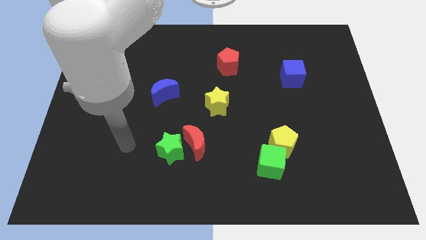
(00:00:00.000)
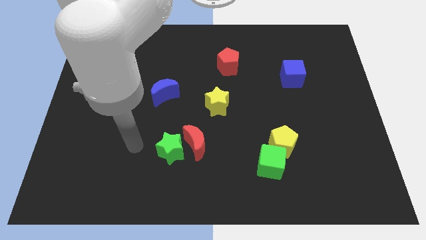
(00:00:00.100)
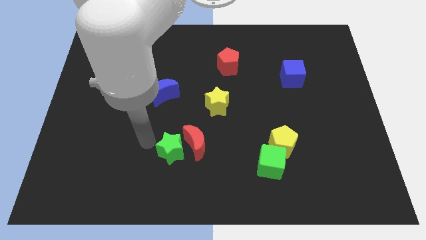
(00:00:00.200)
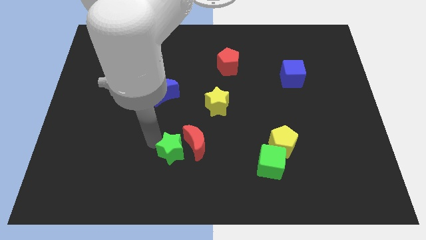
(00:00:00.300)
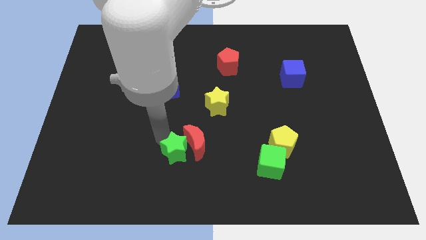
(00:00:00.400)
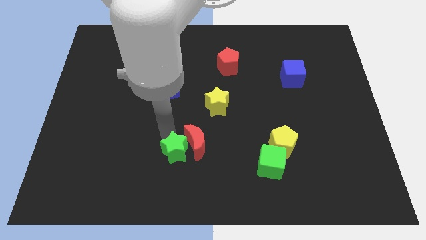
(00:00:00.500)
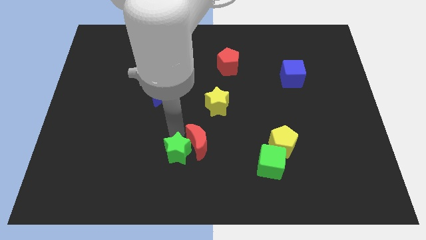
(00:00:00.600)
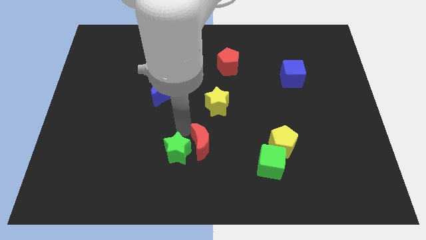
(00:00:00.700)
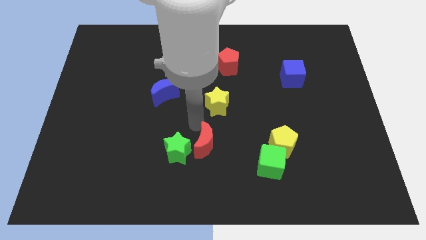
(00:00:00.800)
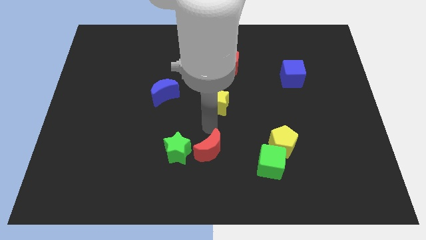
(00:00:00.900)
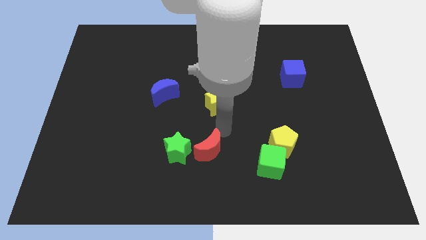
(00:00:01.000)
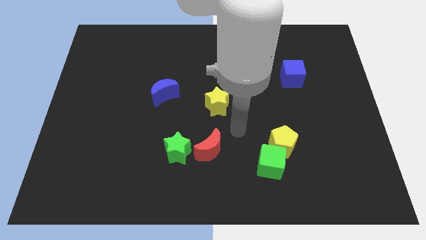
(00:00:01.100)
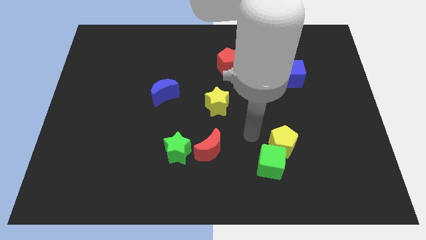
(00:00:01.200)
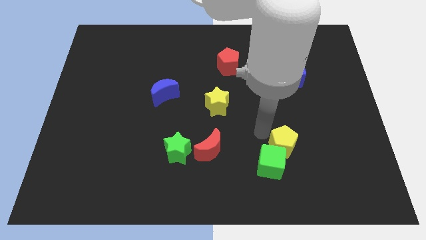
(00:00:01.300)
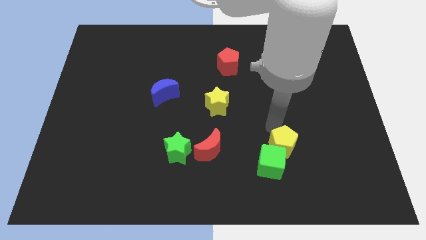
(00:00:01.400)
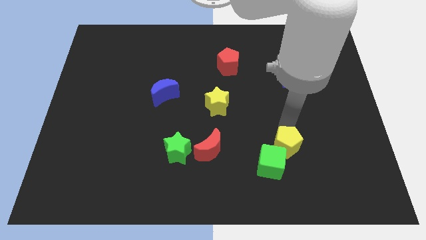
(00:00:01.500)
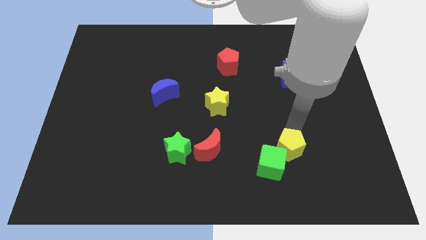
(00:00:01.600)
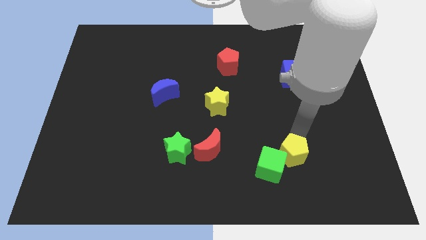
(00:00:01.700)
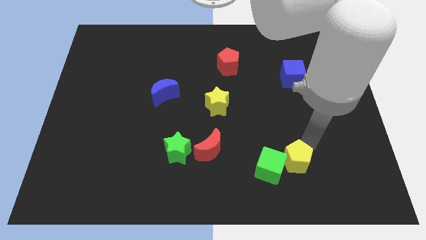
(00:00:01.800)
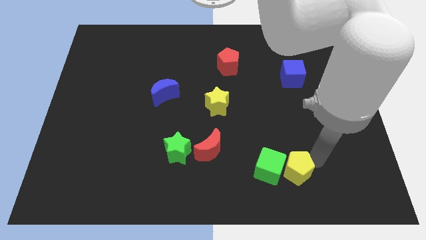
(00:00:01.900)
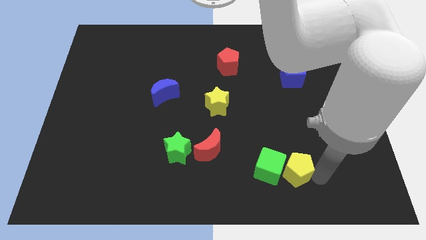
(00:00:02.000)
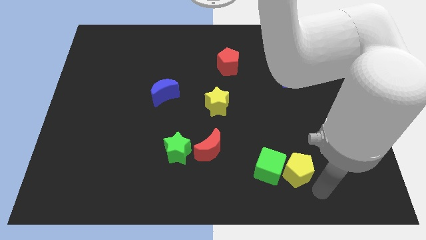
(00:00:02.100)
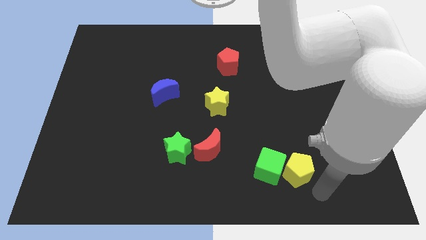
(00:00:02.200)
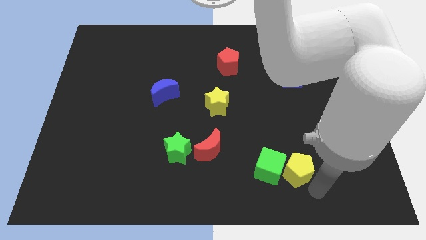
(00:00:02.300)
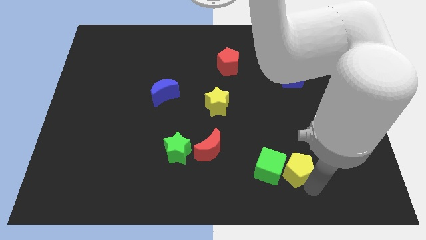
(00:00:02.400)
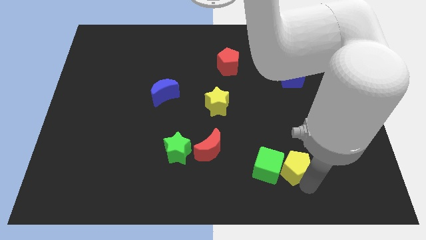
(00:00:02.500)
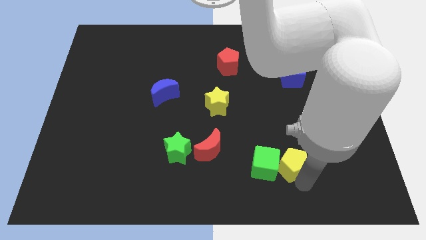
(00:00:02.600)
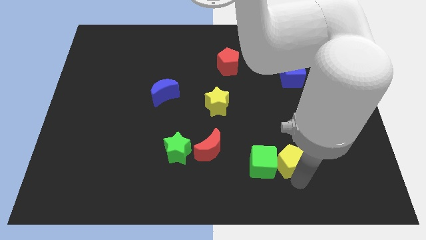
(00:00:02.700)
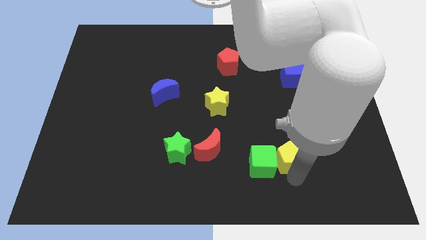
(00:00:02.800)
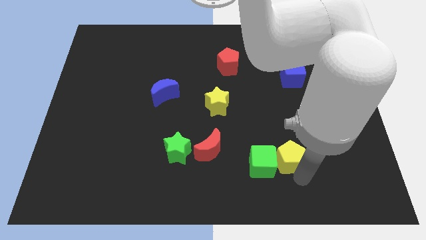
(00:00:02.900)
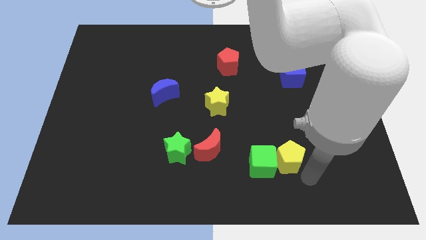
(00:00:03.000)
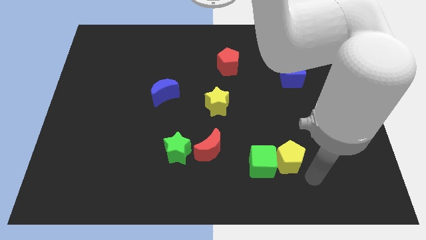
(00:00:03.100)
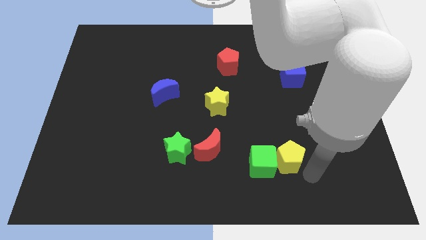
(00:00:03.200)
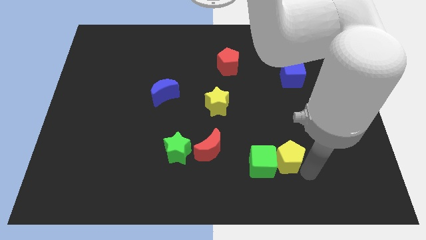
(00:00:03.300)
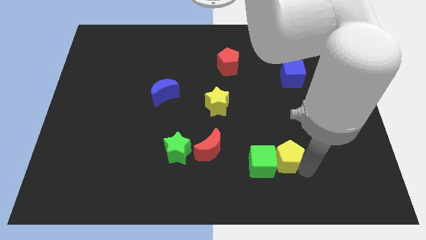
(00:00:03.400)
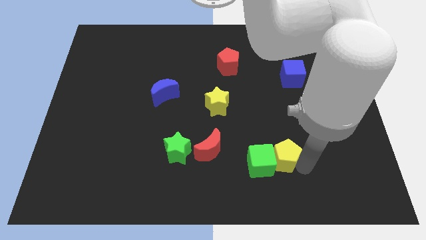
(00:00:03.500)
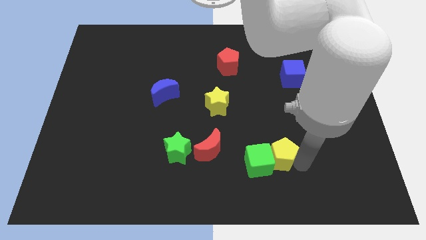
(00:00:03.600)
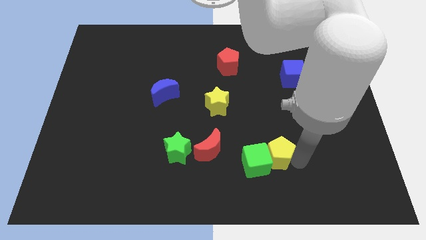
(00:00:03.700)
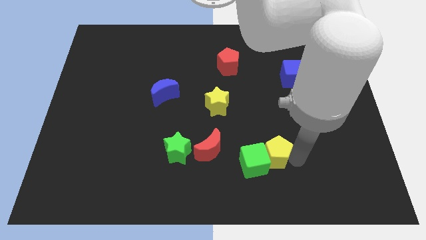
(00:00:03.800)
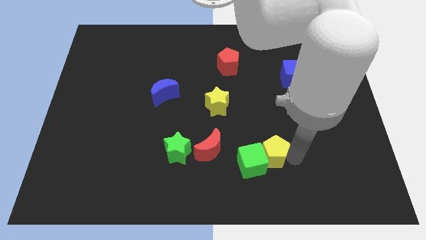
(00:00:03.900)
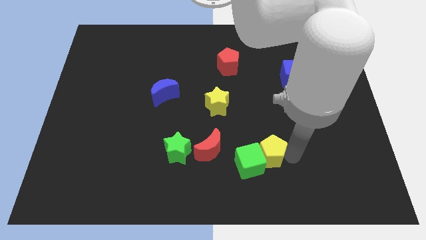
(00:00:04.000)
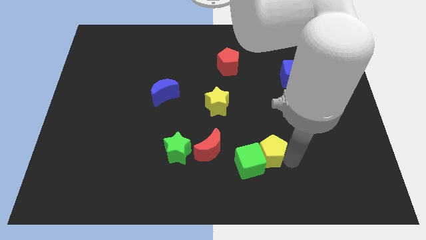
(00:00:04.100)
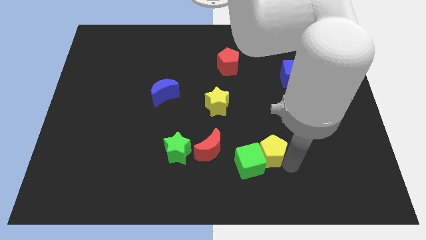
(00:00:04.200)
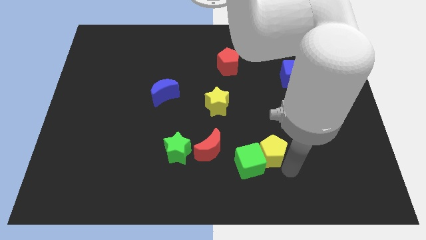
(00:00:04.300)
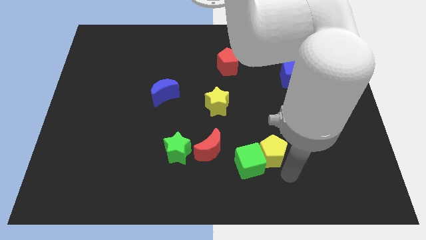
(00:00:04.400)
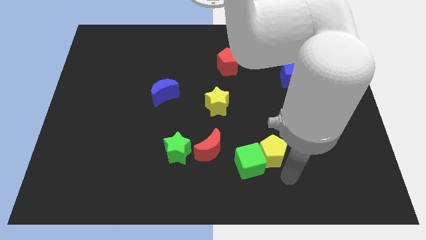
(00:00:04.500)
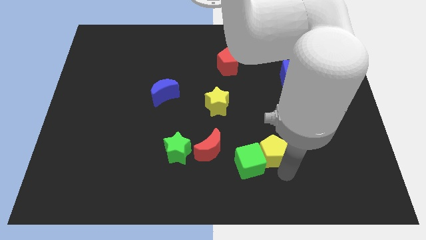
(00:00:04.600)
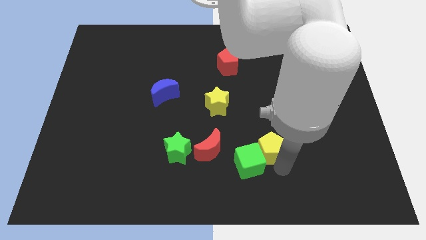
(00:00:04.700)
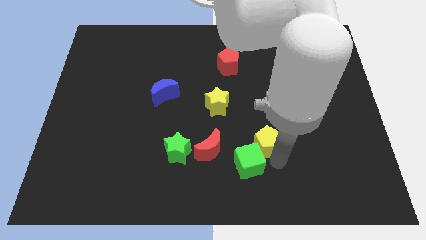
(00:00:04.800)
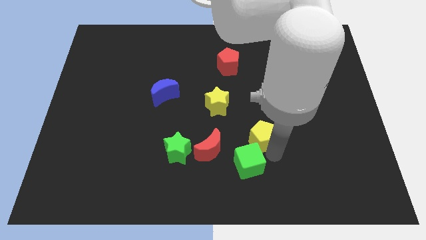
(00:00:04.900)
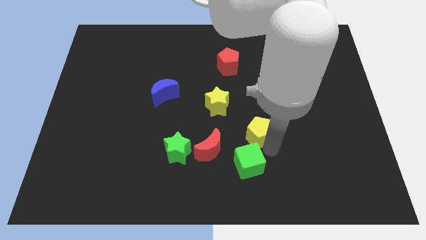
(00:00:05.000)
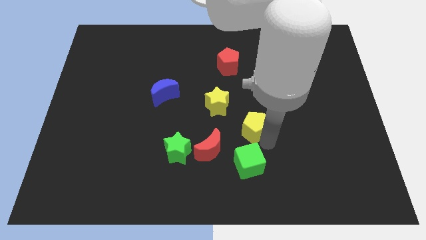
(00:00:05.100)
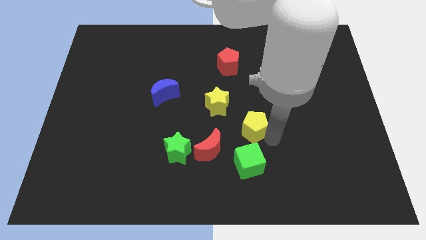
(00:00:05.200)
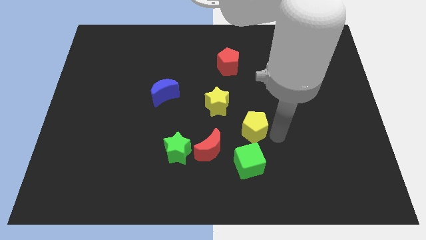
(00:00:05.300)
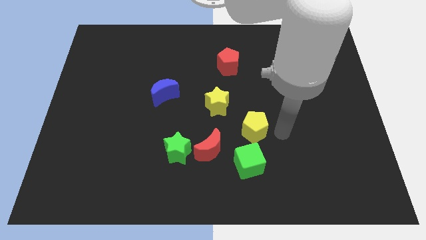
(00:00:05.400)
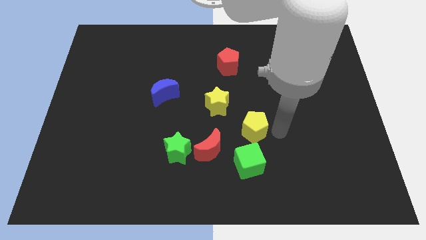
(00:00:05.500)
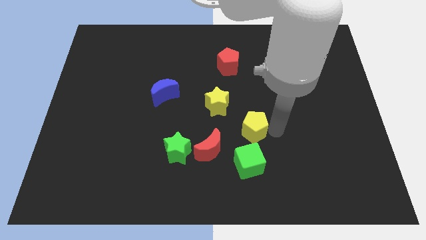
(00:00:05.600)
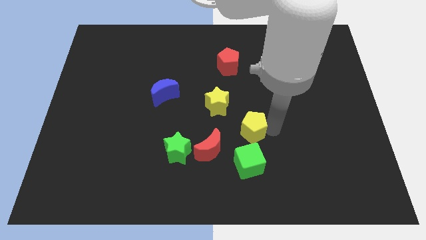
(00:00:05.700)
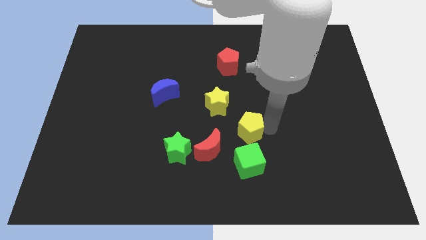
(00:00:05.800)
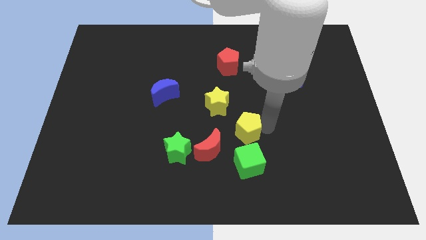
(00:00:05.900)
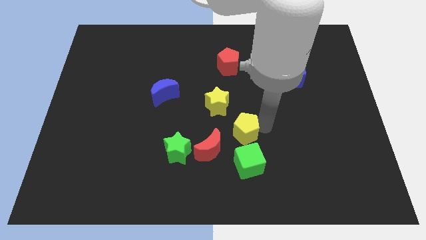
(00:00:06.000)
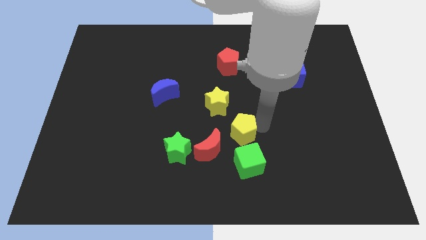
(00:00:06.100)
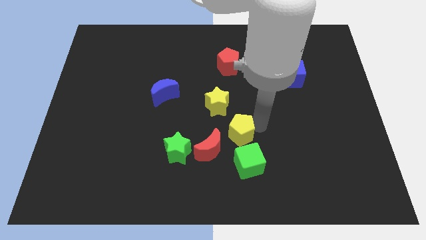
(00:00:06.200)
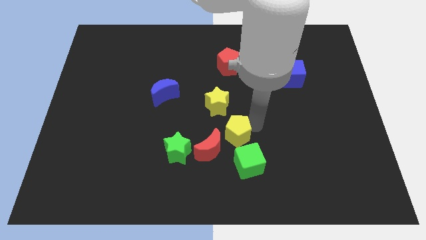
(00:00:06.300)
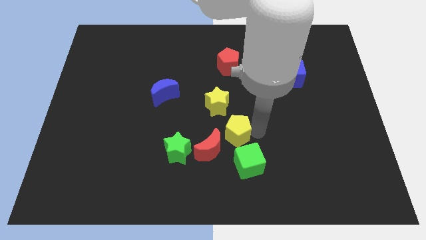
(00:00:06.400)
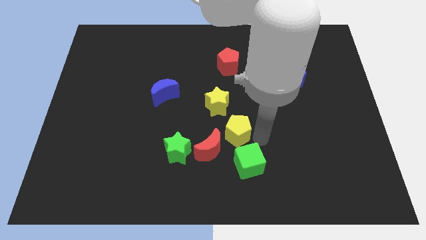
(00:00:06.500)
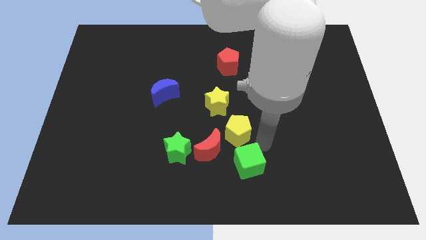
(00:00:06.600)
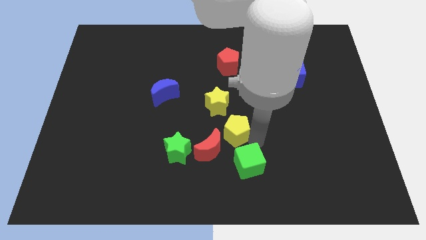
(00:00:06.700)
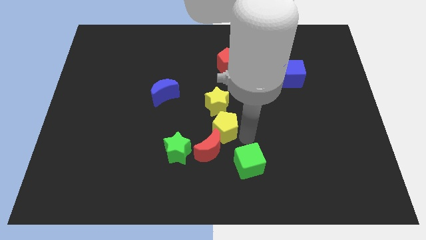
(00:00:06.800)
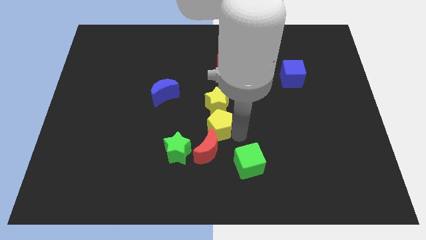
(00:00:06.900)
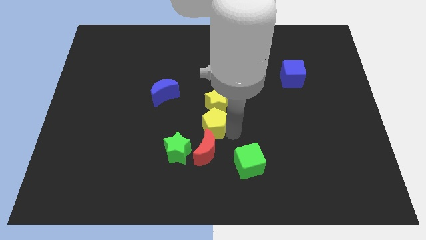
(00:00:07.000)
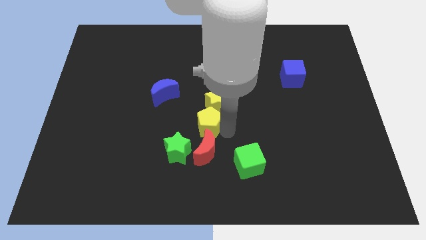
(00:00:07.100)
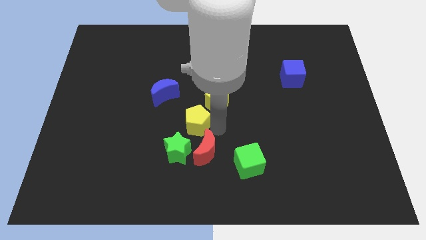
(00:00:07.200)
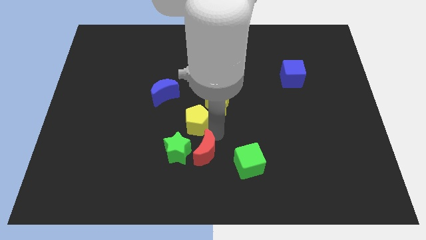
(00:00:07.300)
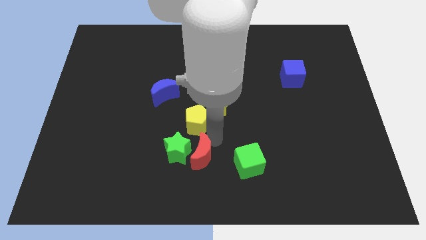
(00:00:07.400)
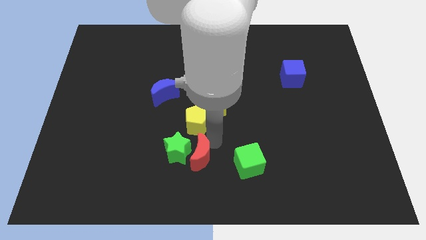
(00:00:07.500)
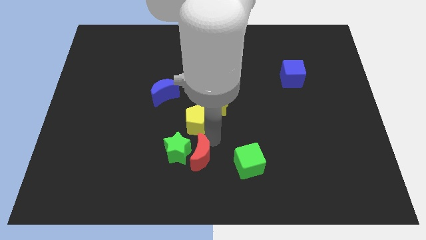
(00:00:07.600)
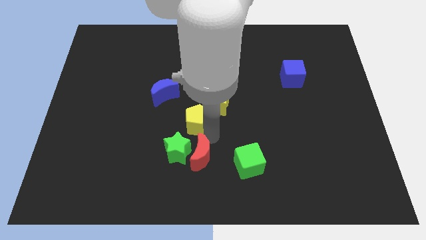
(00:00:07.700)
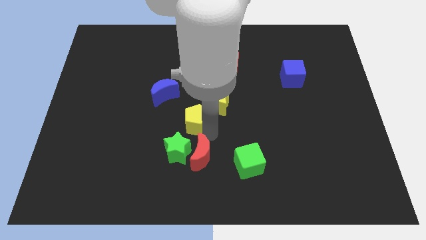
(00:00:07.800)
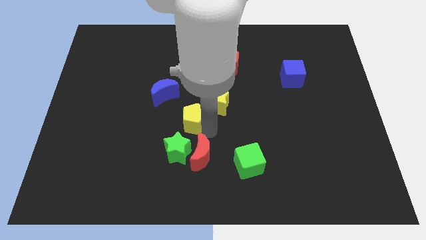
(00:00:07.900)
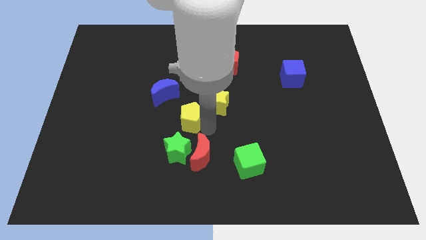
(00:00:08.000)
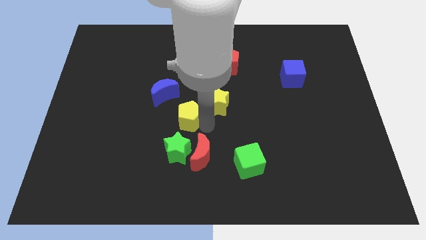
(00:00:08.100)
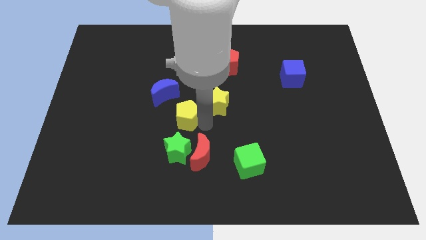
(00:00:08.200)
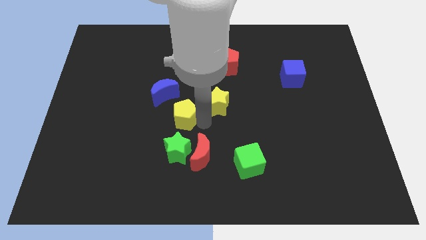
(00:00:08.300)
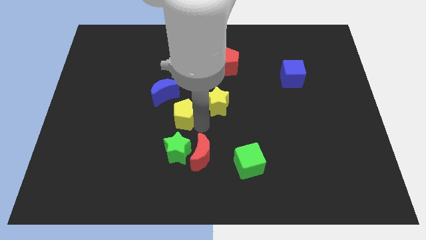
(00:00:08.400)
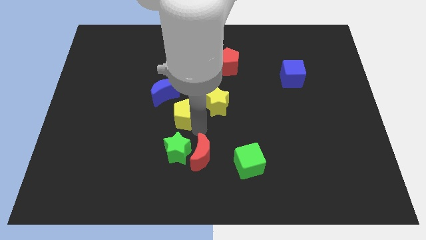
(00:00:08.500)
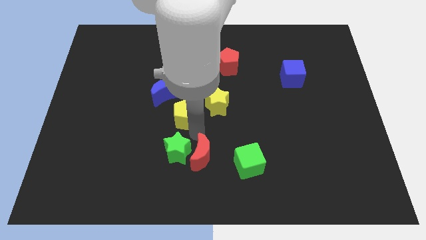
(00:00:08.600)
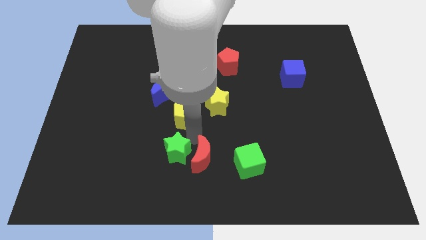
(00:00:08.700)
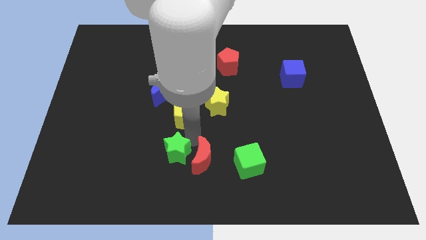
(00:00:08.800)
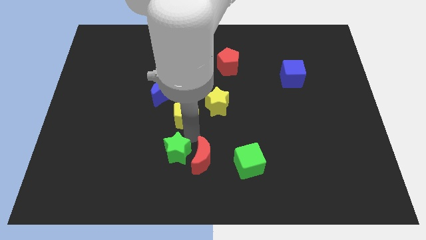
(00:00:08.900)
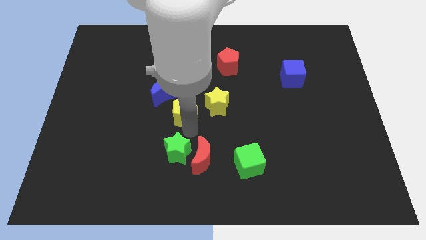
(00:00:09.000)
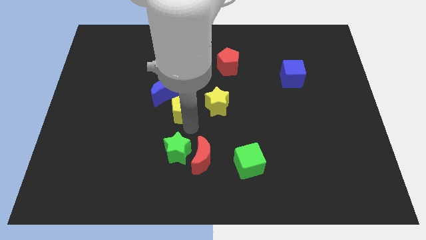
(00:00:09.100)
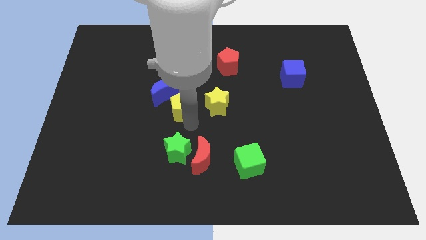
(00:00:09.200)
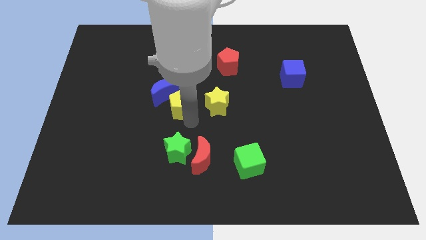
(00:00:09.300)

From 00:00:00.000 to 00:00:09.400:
slide the yellow pentagon towards the blue moon
